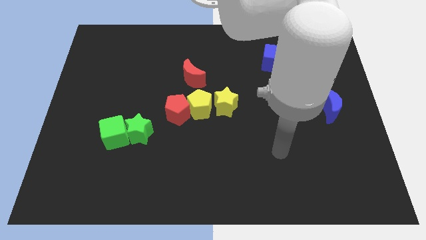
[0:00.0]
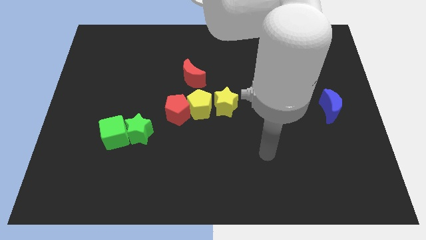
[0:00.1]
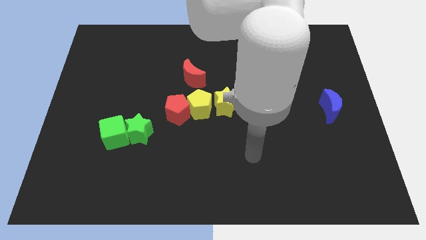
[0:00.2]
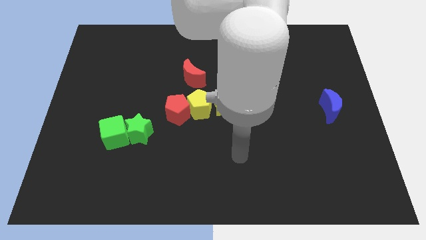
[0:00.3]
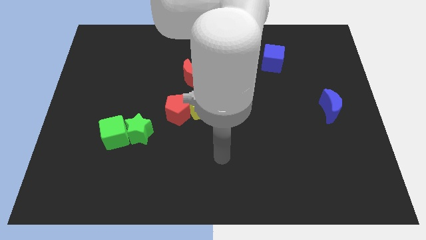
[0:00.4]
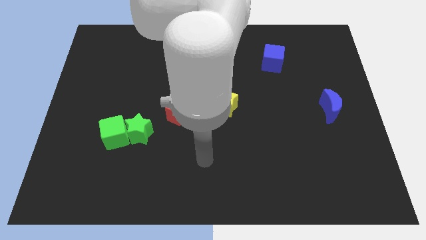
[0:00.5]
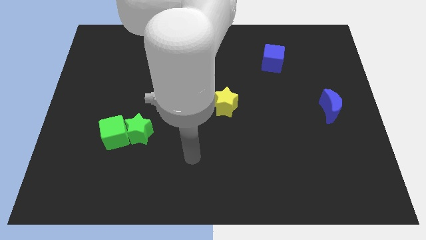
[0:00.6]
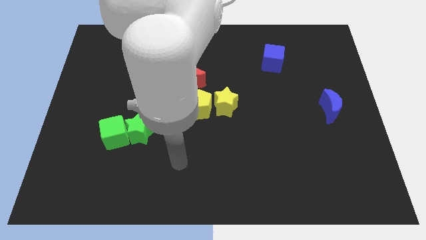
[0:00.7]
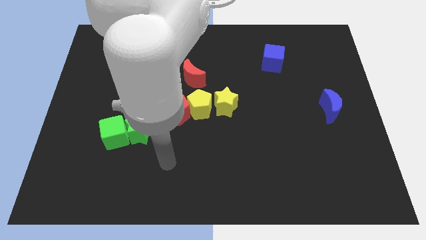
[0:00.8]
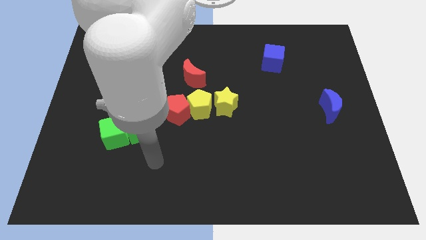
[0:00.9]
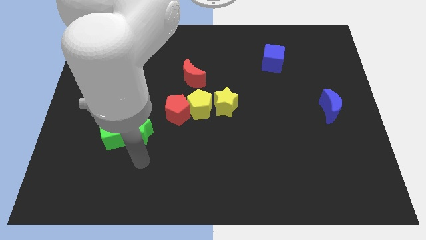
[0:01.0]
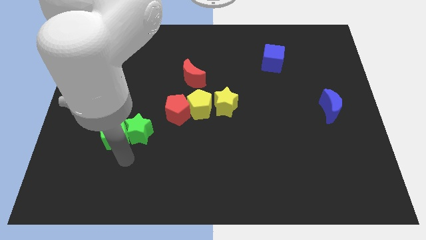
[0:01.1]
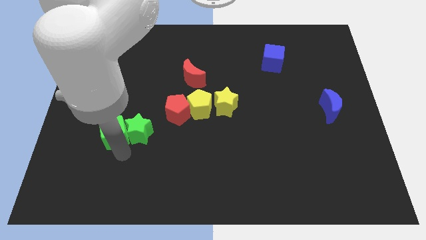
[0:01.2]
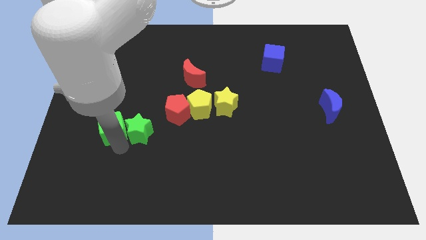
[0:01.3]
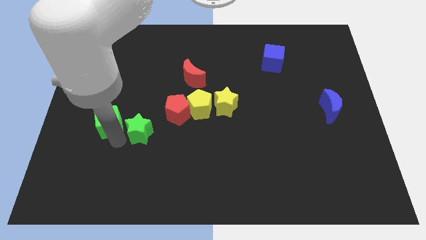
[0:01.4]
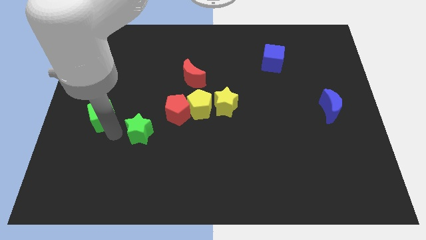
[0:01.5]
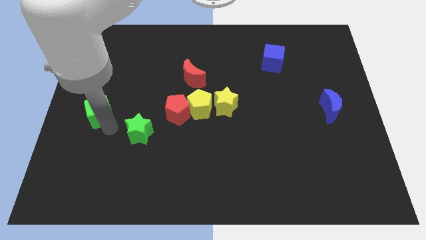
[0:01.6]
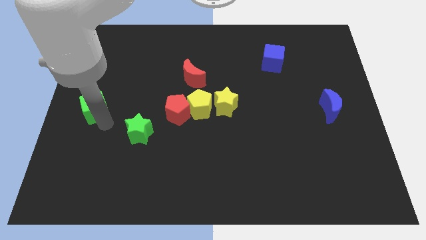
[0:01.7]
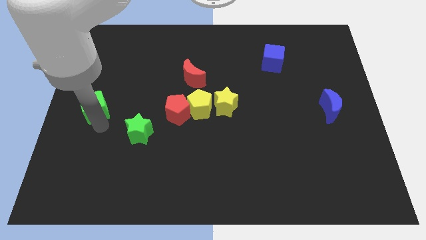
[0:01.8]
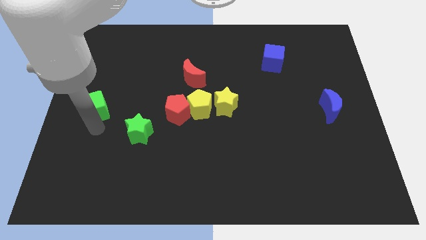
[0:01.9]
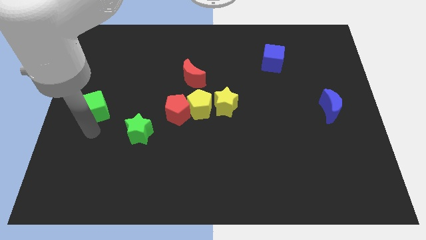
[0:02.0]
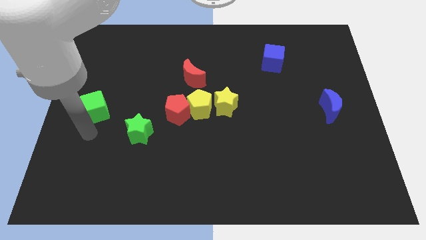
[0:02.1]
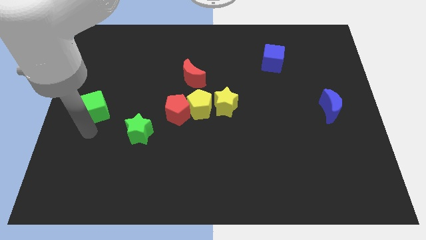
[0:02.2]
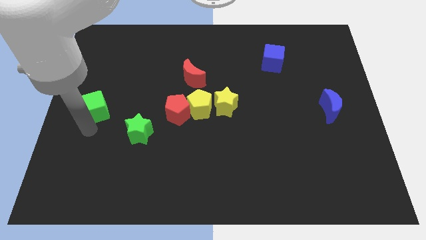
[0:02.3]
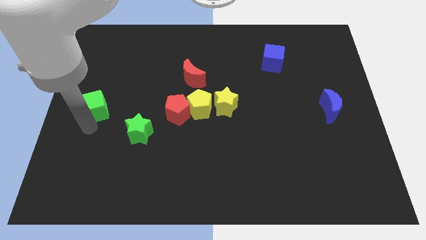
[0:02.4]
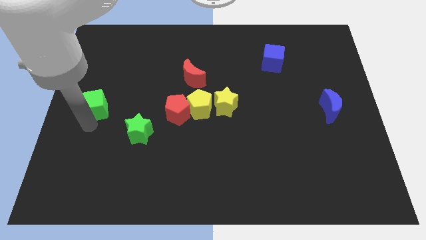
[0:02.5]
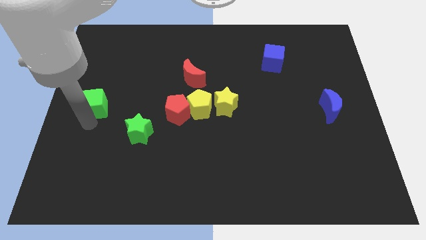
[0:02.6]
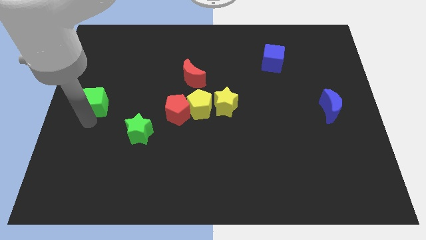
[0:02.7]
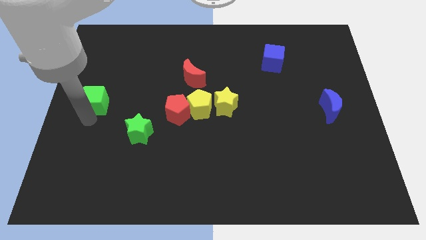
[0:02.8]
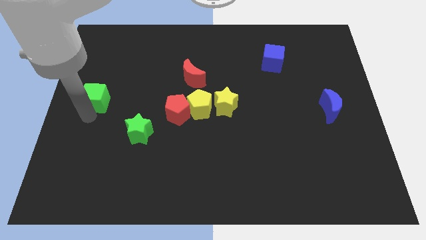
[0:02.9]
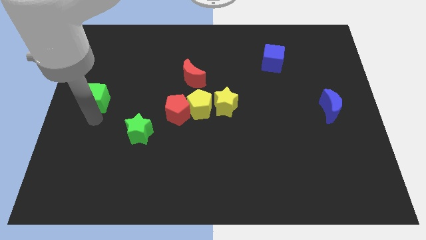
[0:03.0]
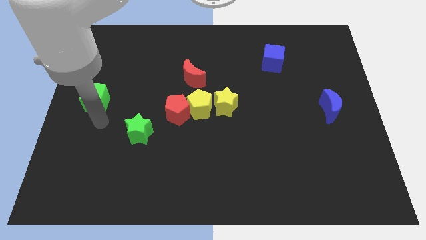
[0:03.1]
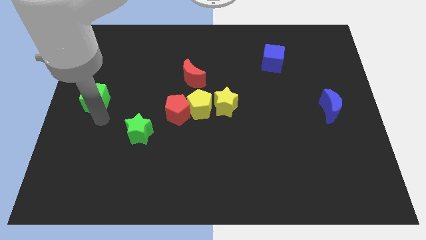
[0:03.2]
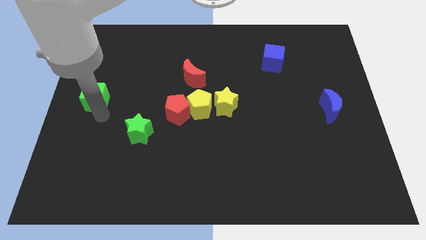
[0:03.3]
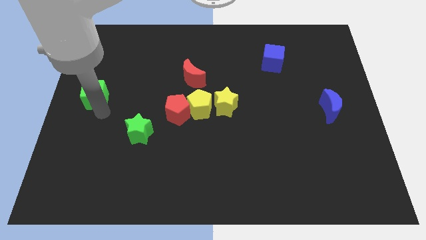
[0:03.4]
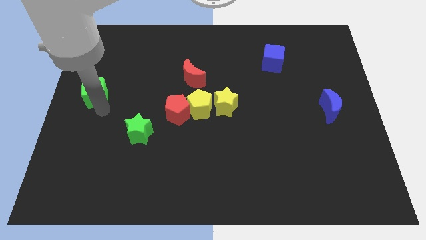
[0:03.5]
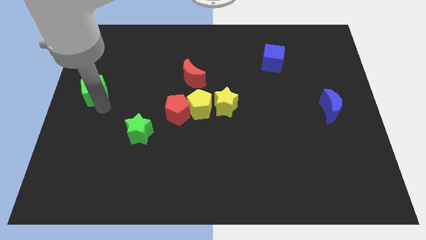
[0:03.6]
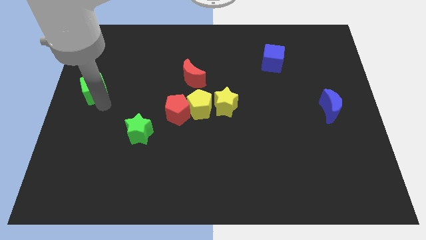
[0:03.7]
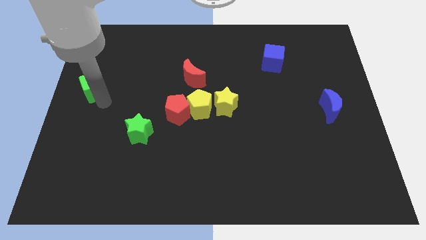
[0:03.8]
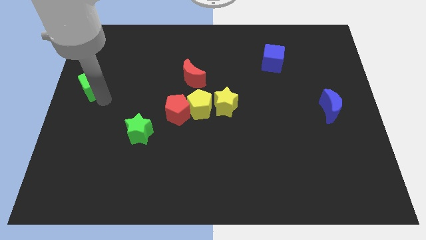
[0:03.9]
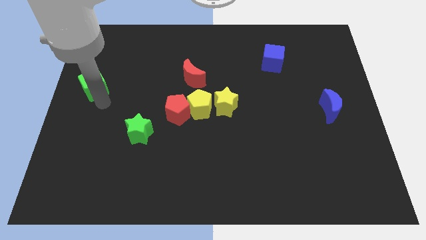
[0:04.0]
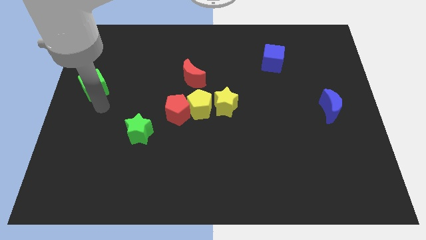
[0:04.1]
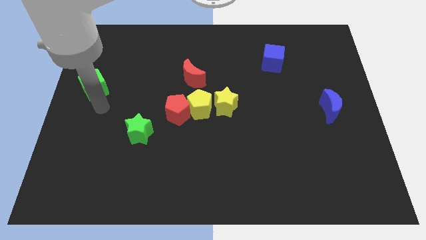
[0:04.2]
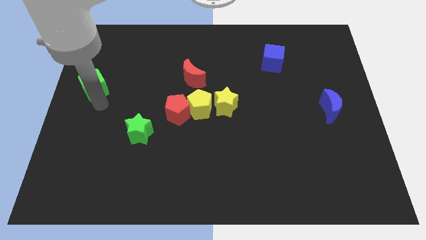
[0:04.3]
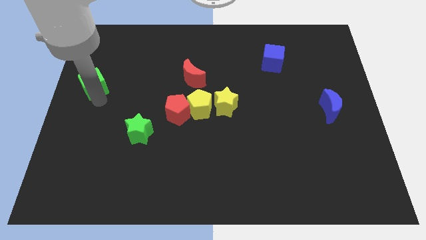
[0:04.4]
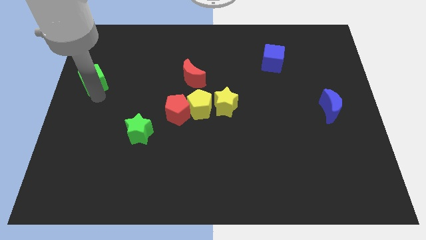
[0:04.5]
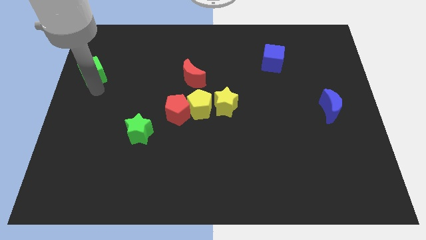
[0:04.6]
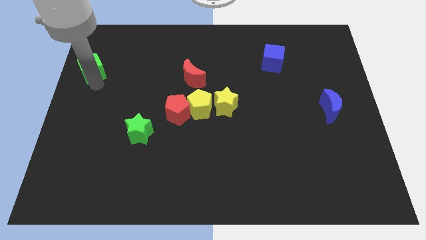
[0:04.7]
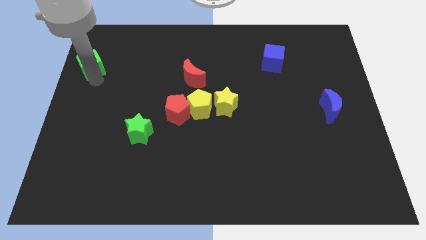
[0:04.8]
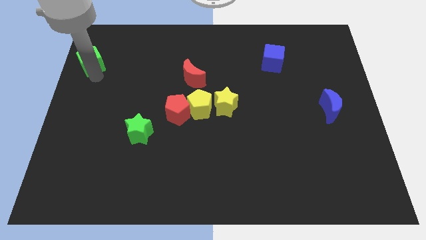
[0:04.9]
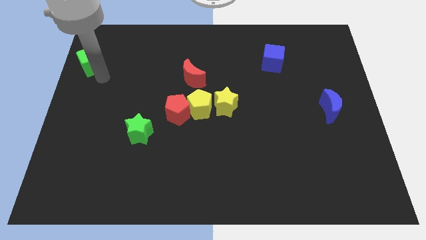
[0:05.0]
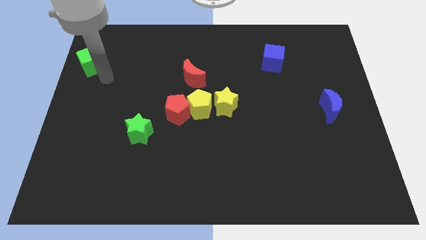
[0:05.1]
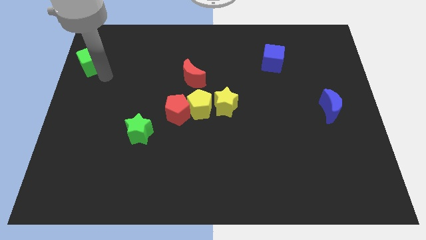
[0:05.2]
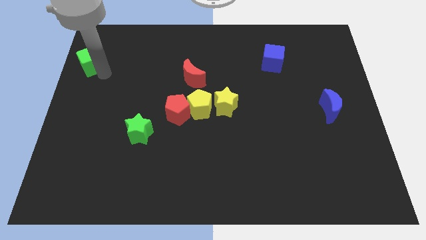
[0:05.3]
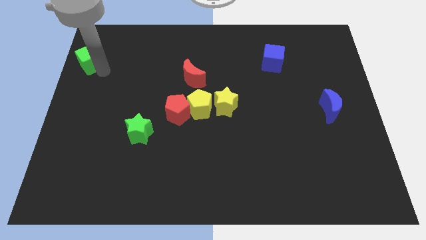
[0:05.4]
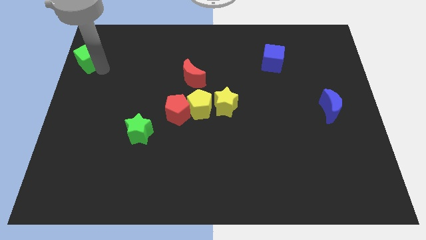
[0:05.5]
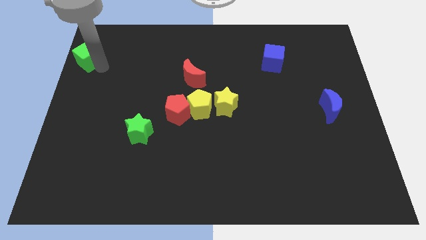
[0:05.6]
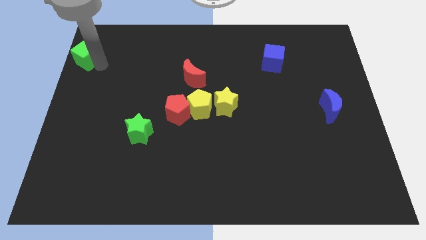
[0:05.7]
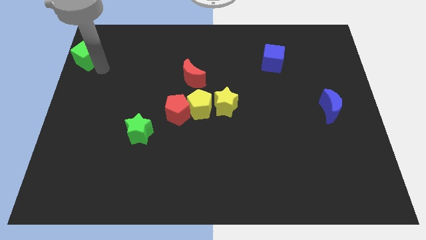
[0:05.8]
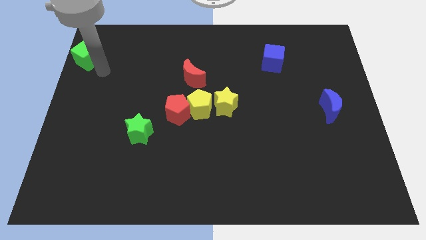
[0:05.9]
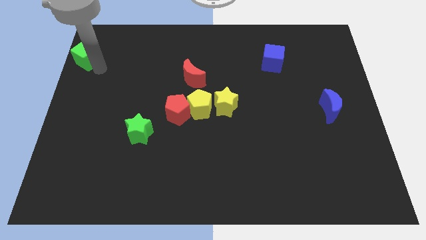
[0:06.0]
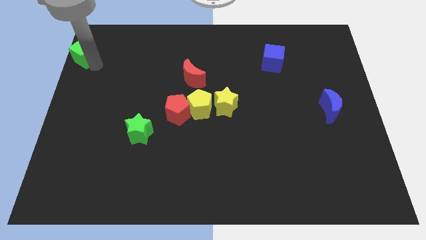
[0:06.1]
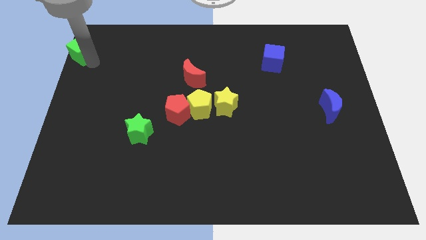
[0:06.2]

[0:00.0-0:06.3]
move the green cube to the upper left corner

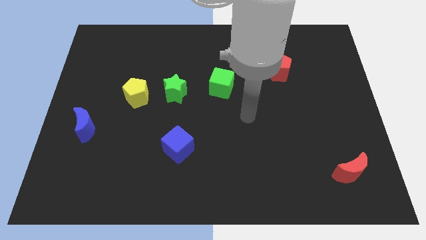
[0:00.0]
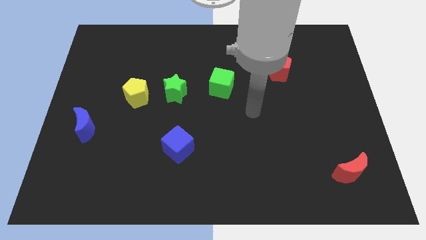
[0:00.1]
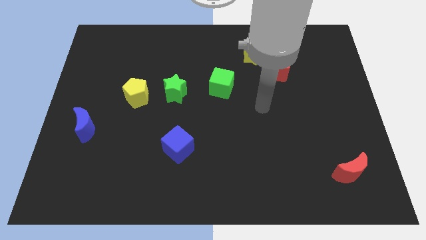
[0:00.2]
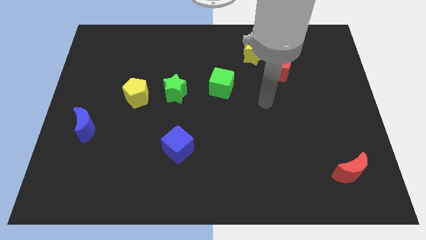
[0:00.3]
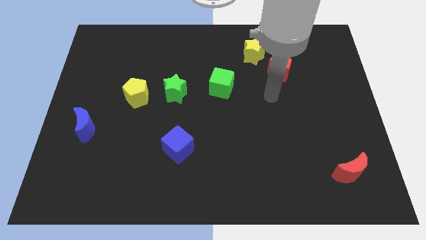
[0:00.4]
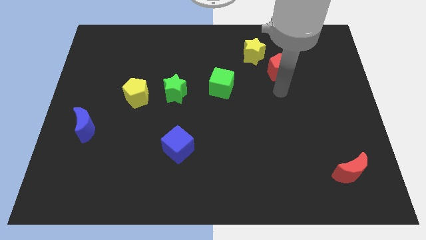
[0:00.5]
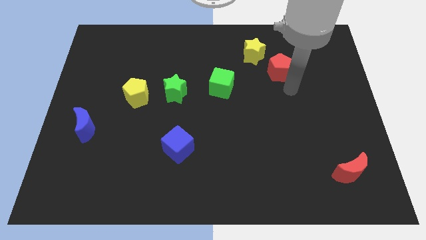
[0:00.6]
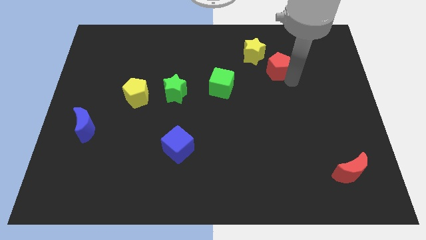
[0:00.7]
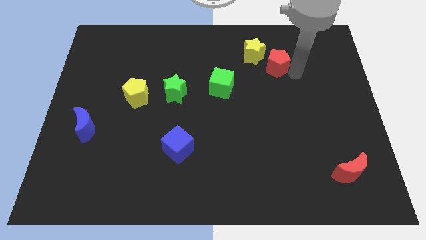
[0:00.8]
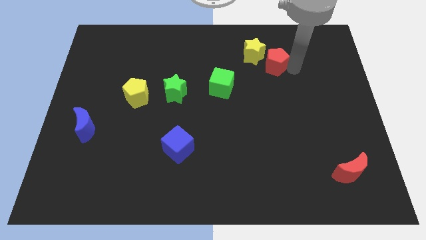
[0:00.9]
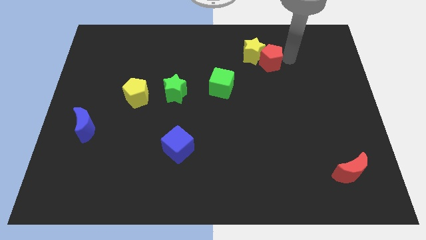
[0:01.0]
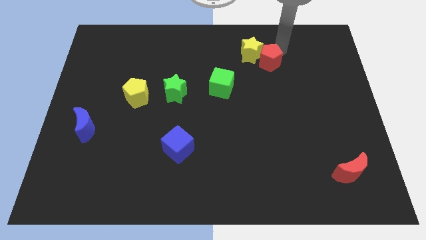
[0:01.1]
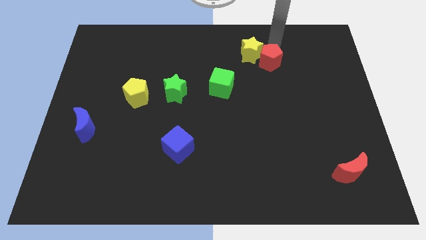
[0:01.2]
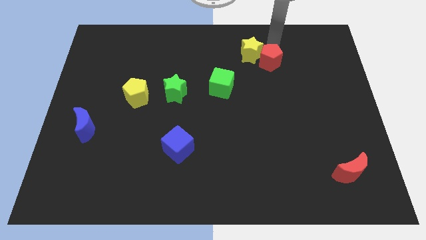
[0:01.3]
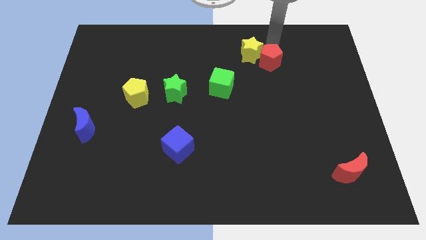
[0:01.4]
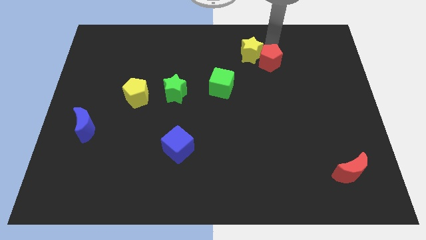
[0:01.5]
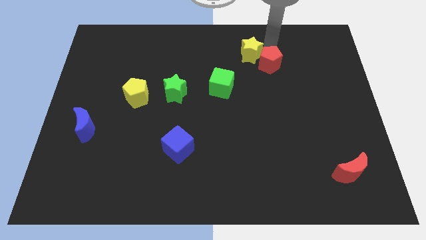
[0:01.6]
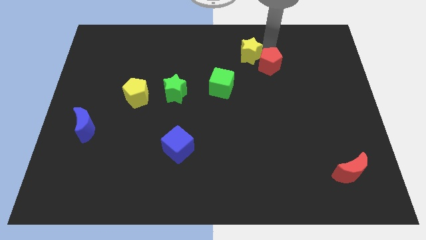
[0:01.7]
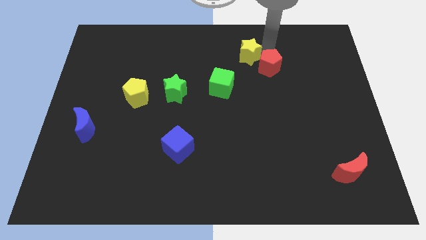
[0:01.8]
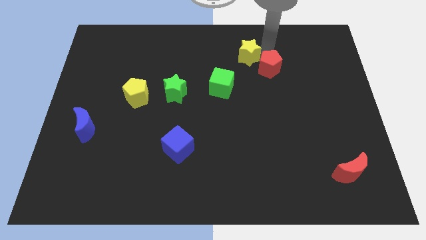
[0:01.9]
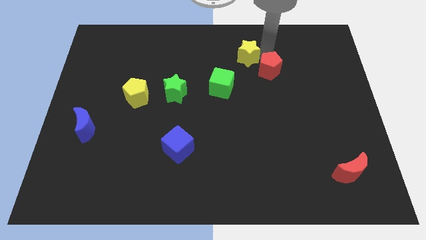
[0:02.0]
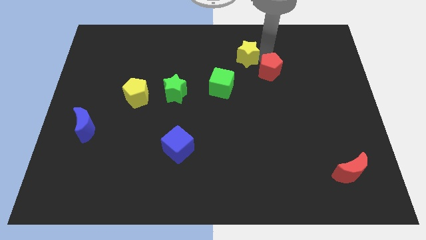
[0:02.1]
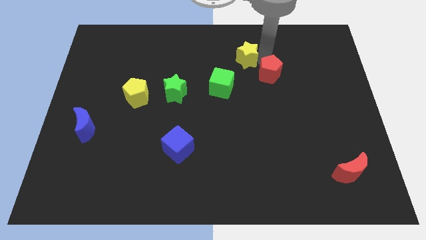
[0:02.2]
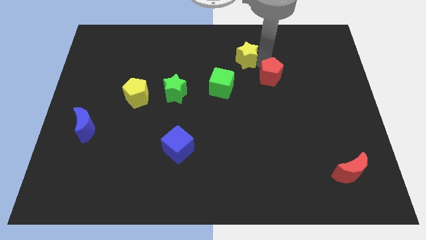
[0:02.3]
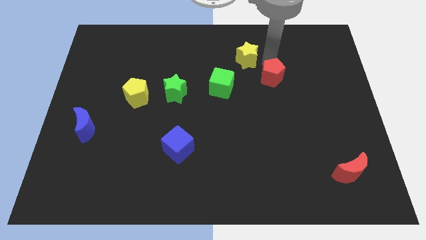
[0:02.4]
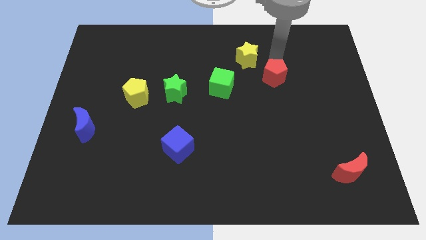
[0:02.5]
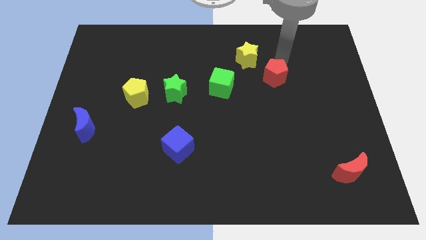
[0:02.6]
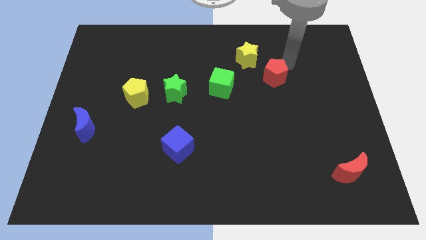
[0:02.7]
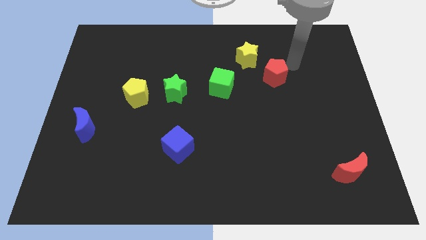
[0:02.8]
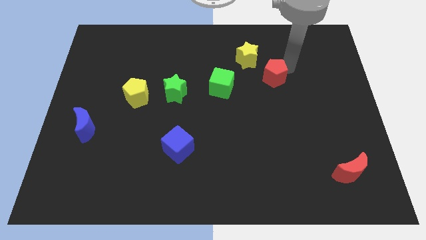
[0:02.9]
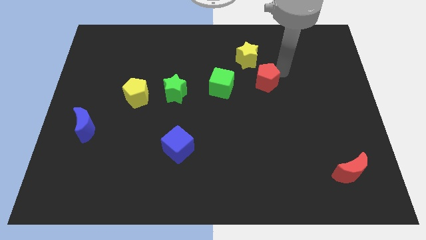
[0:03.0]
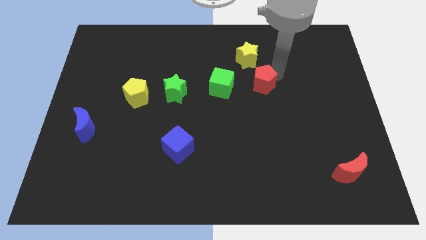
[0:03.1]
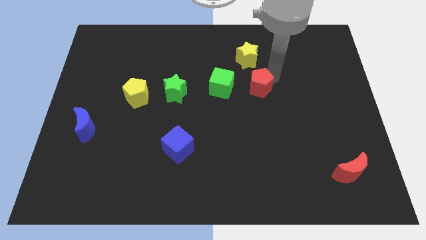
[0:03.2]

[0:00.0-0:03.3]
move the red pentagon to the middle of the board
